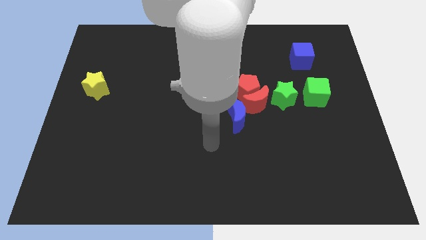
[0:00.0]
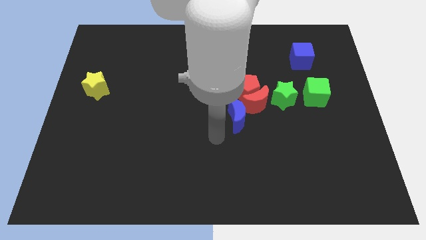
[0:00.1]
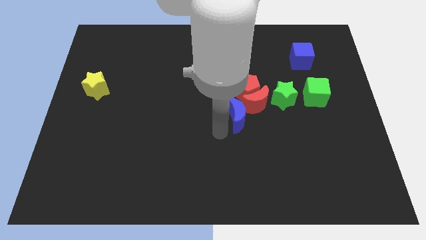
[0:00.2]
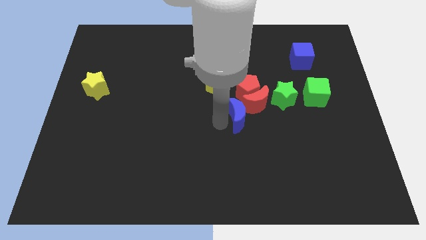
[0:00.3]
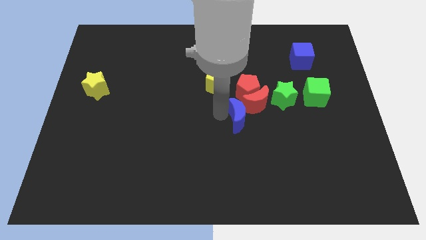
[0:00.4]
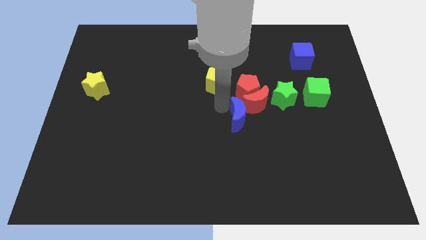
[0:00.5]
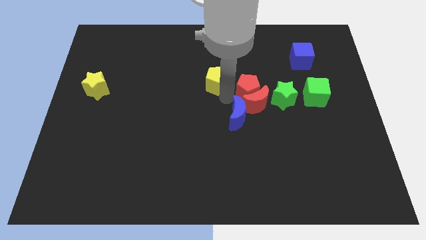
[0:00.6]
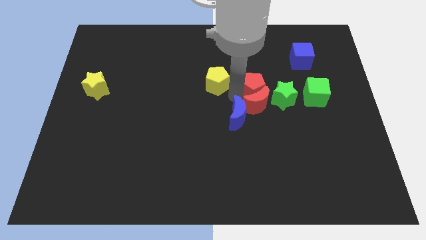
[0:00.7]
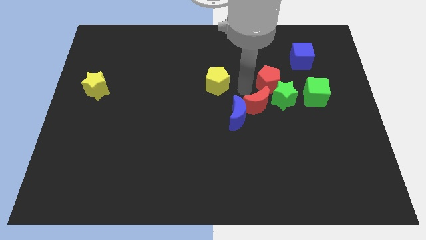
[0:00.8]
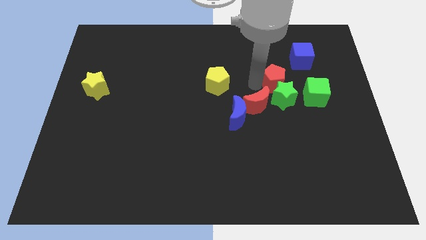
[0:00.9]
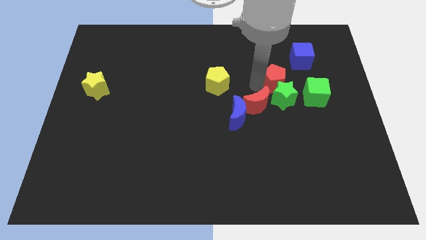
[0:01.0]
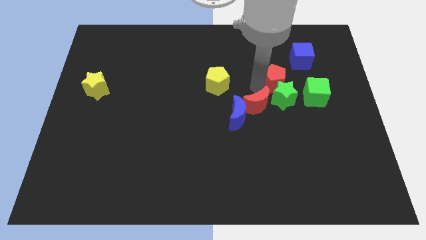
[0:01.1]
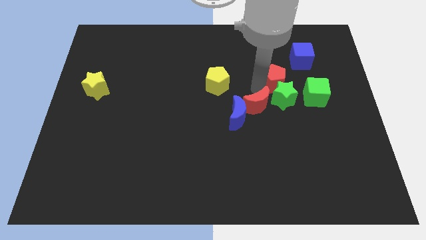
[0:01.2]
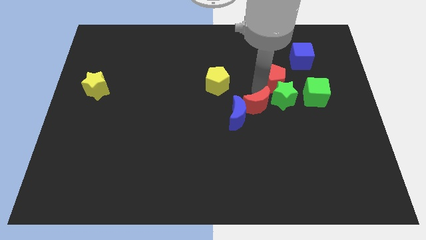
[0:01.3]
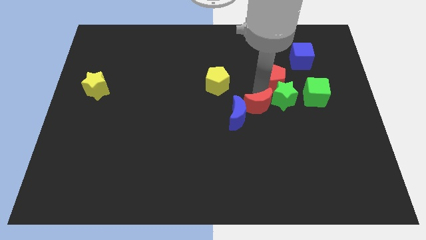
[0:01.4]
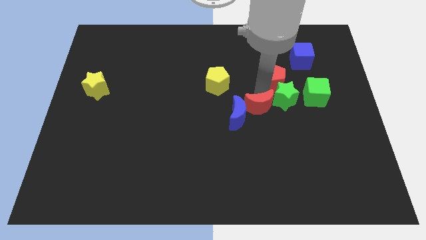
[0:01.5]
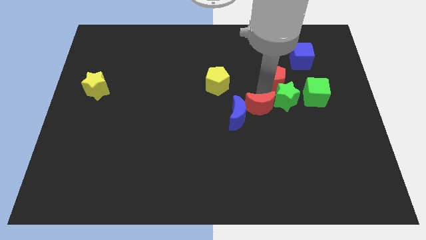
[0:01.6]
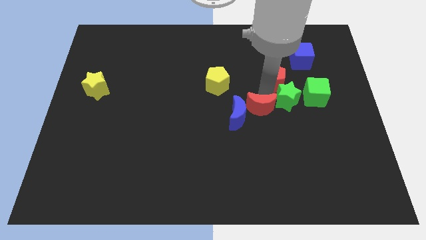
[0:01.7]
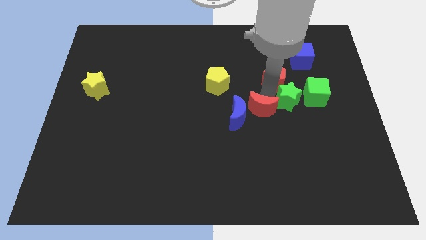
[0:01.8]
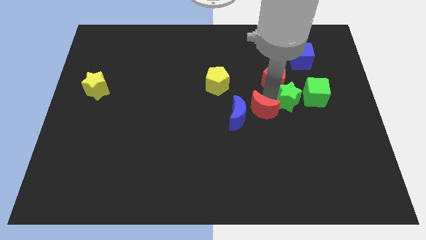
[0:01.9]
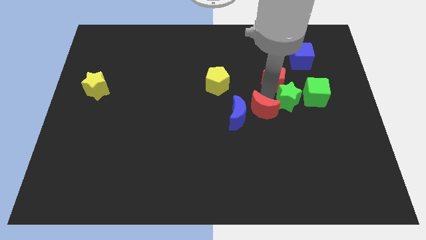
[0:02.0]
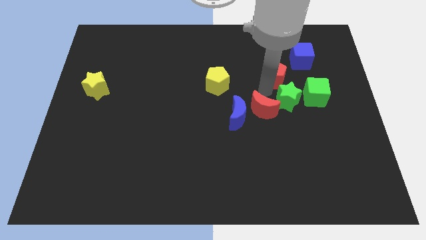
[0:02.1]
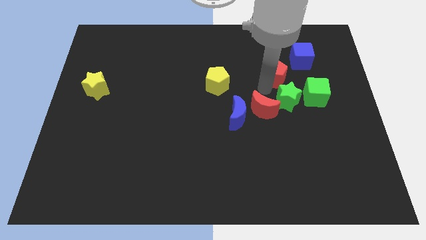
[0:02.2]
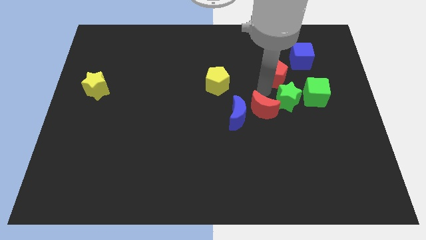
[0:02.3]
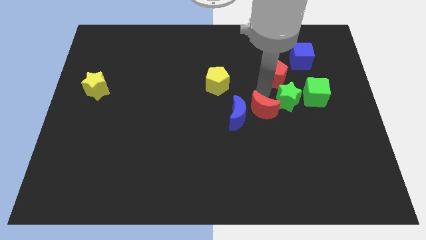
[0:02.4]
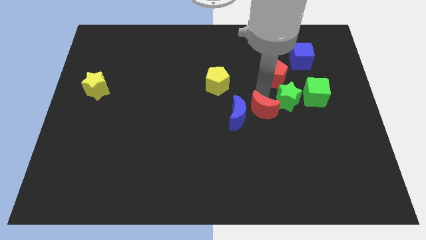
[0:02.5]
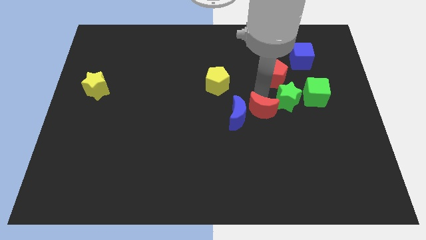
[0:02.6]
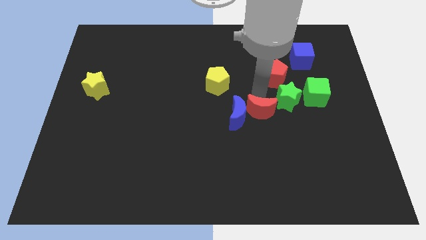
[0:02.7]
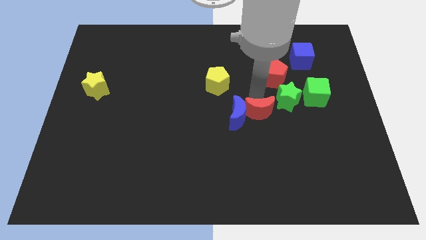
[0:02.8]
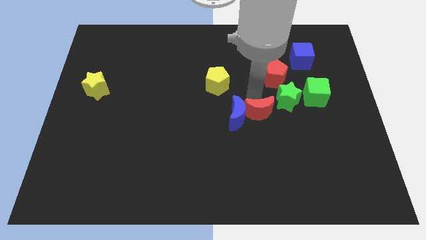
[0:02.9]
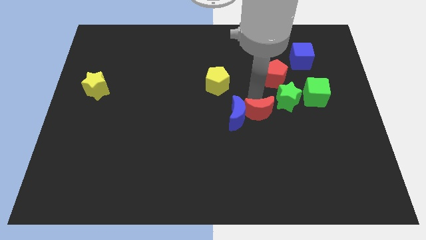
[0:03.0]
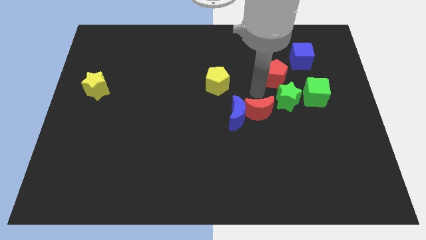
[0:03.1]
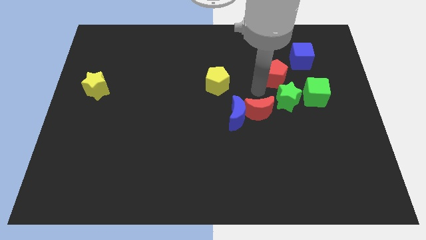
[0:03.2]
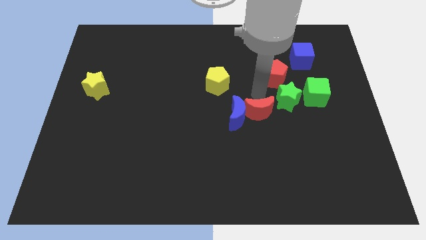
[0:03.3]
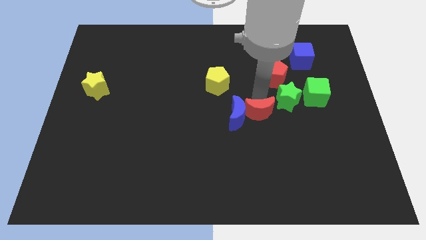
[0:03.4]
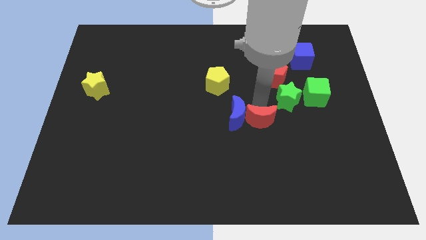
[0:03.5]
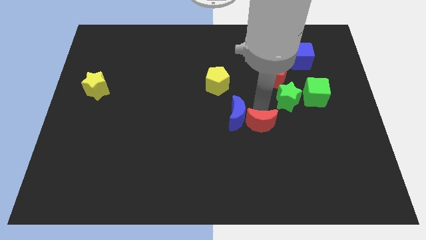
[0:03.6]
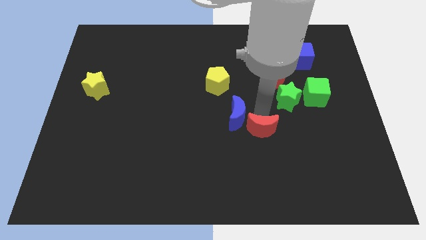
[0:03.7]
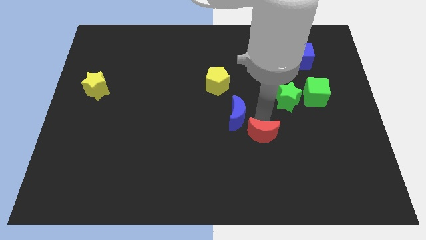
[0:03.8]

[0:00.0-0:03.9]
separate the red moon from the red pentagon, blue moon, and green star

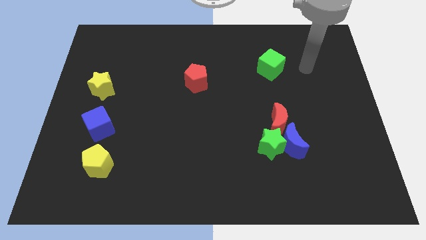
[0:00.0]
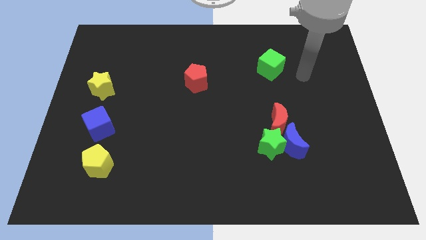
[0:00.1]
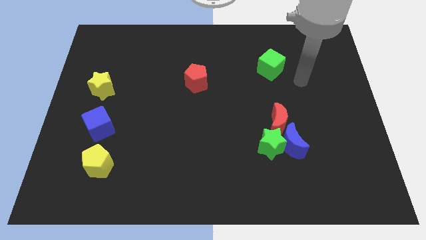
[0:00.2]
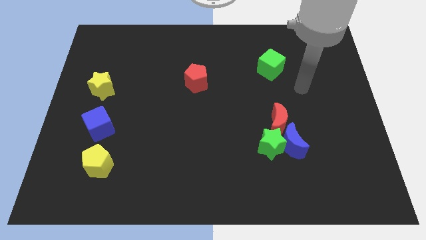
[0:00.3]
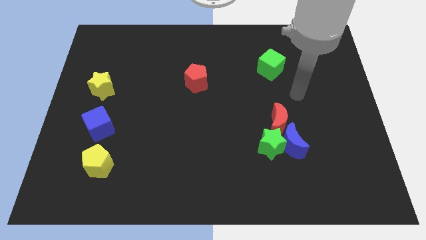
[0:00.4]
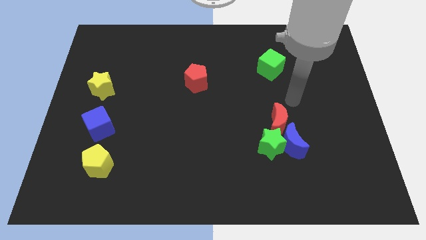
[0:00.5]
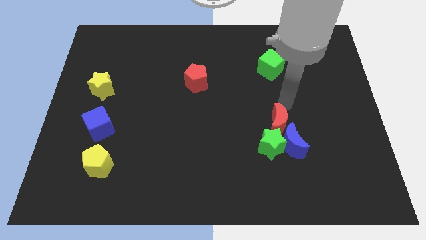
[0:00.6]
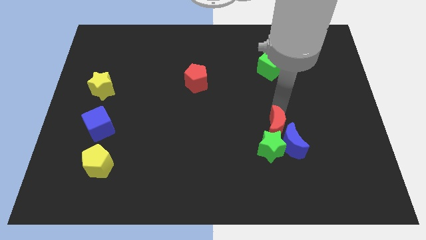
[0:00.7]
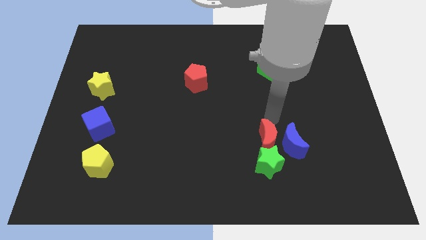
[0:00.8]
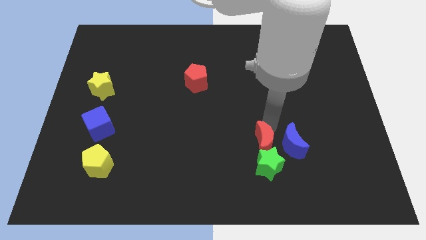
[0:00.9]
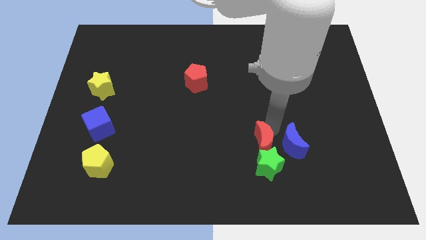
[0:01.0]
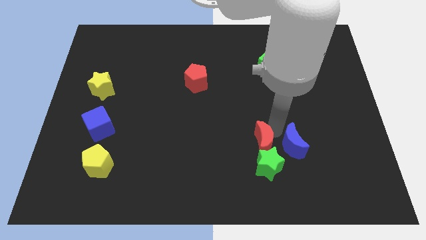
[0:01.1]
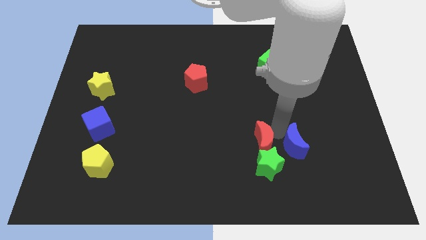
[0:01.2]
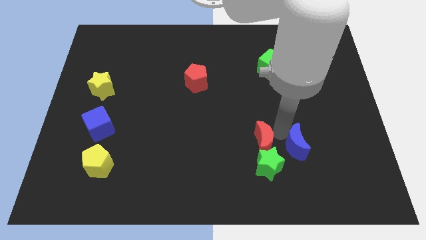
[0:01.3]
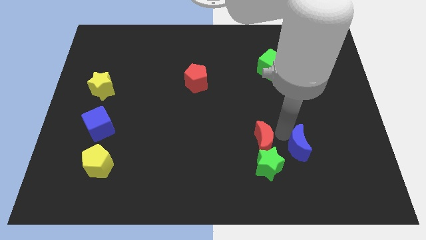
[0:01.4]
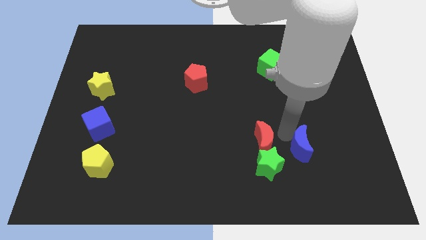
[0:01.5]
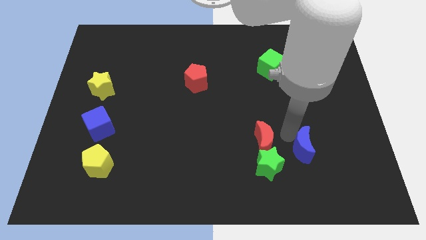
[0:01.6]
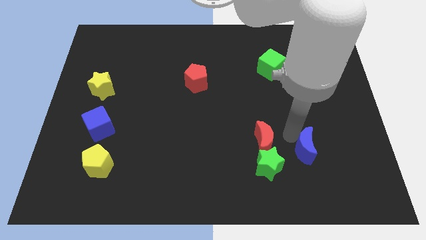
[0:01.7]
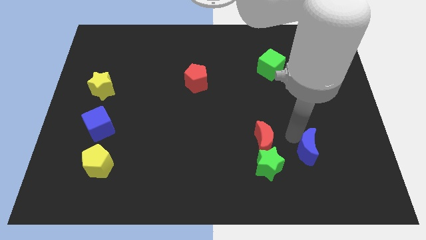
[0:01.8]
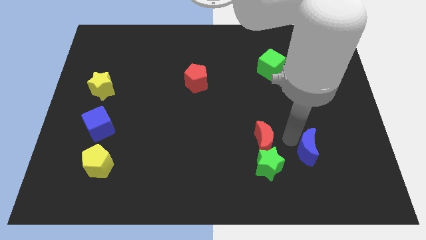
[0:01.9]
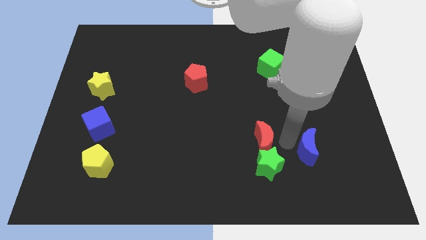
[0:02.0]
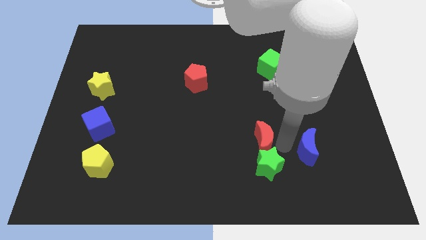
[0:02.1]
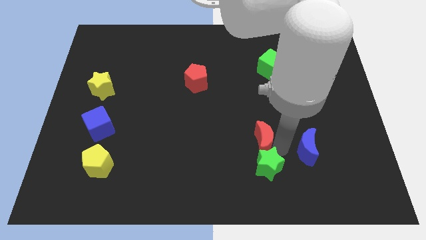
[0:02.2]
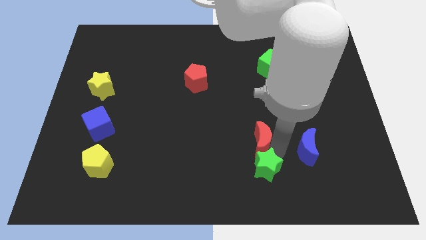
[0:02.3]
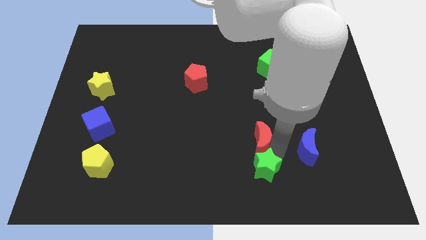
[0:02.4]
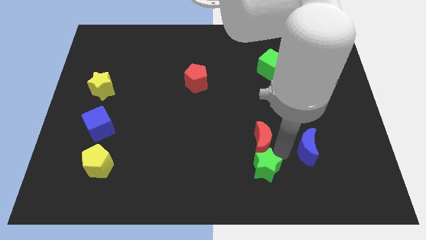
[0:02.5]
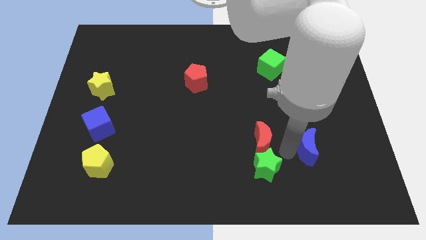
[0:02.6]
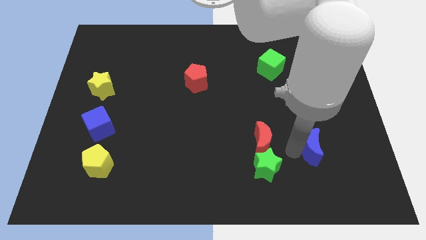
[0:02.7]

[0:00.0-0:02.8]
separate the blue moon from the green star and red moon

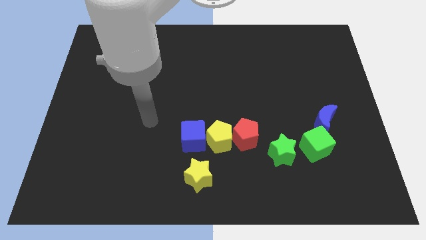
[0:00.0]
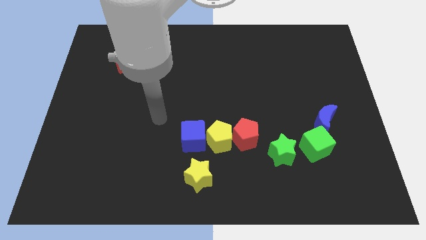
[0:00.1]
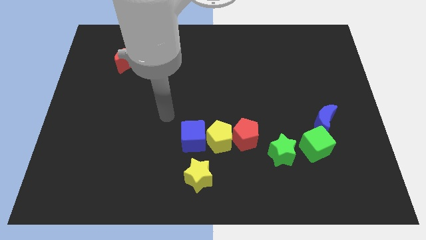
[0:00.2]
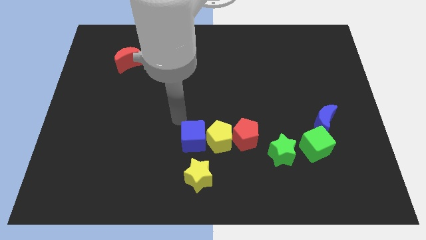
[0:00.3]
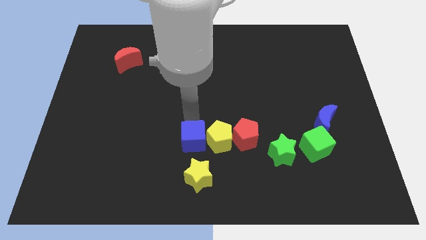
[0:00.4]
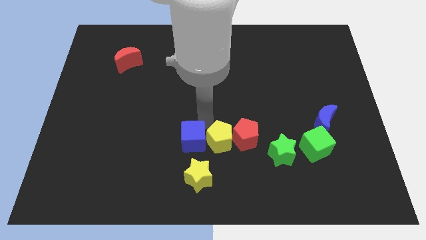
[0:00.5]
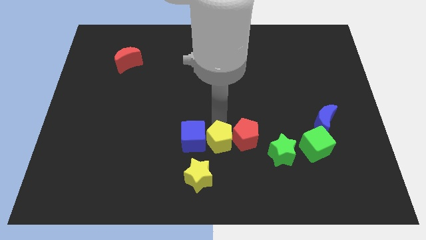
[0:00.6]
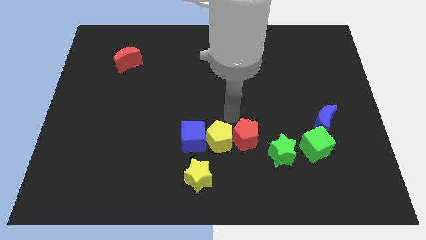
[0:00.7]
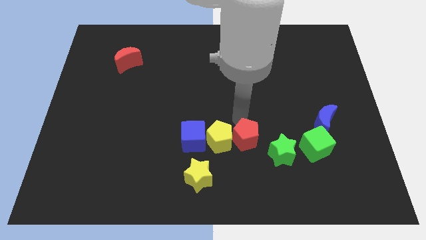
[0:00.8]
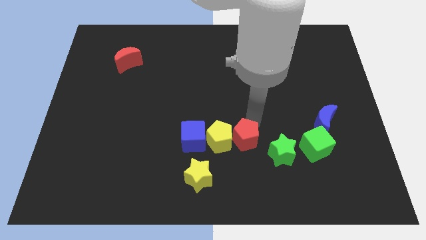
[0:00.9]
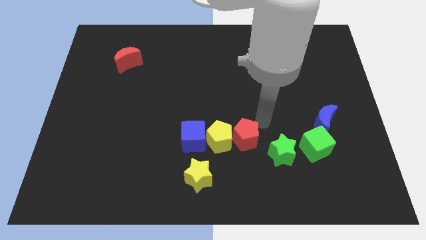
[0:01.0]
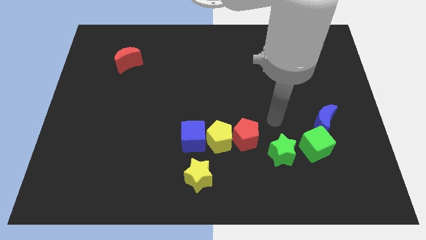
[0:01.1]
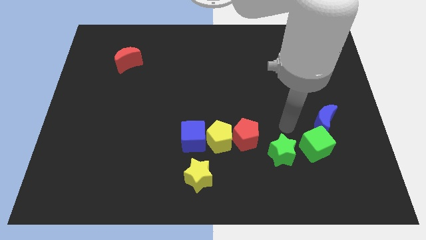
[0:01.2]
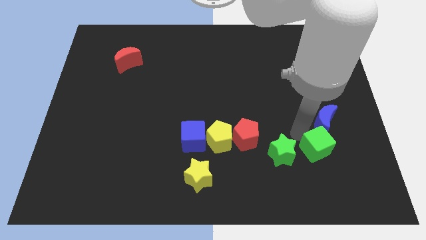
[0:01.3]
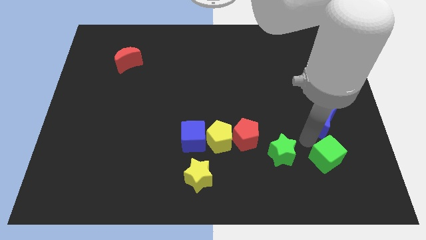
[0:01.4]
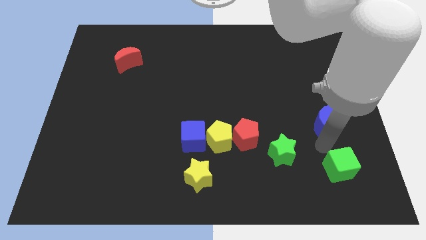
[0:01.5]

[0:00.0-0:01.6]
pull the blue moon apart from the green cube

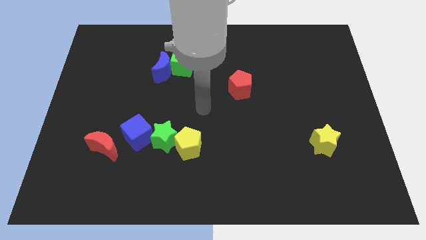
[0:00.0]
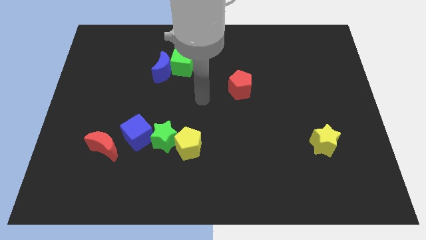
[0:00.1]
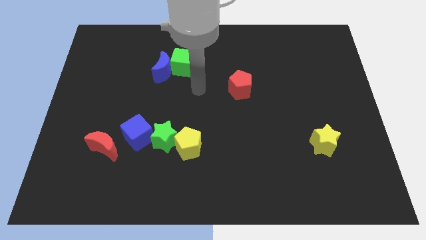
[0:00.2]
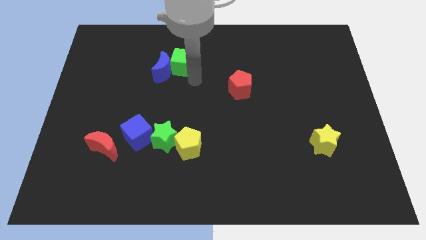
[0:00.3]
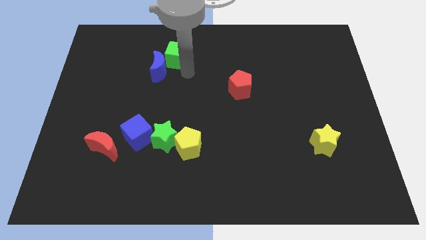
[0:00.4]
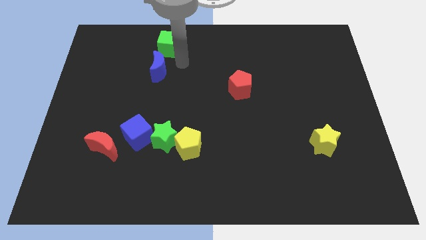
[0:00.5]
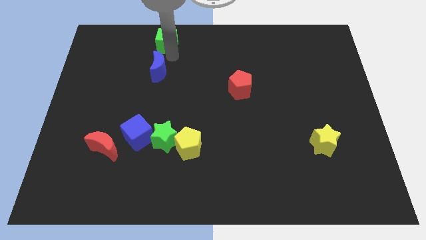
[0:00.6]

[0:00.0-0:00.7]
move the blue moon away from the green cube

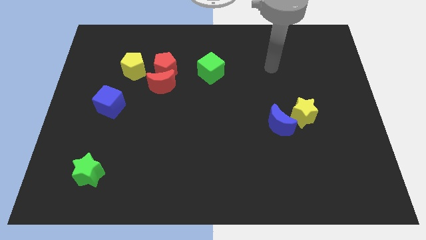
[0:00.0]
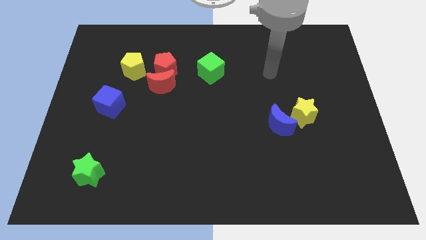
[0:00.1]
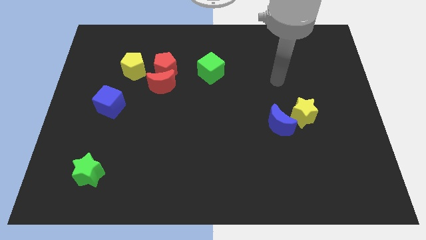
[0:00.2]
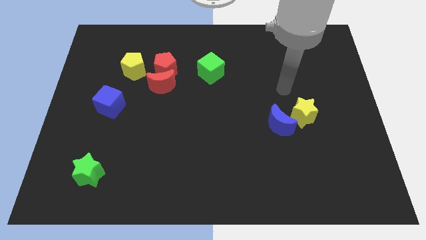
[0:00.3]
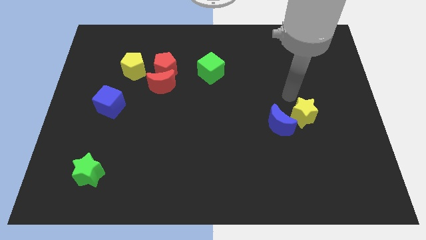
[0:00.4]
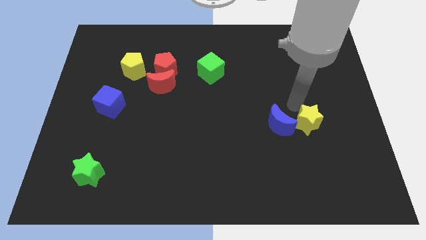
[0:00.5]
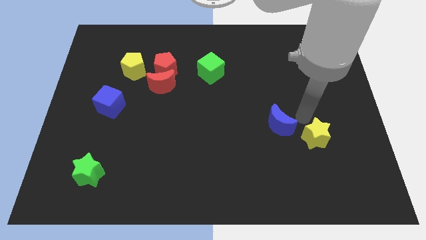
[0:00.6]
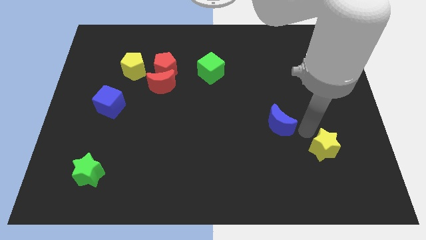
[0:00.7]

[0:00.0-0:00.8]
separate the blue moon from the yellow star
